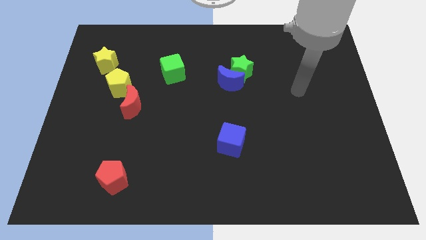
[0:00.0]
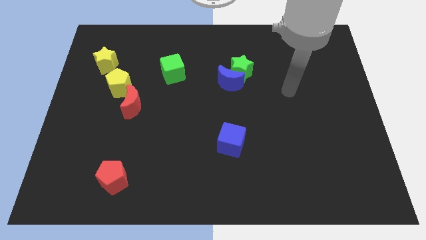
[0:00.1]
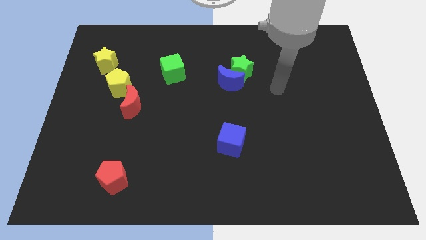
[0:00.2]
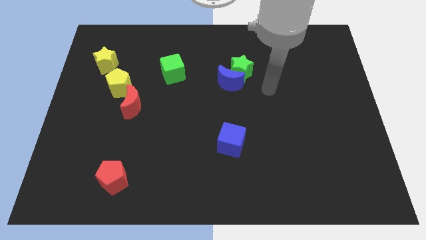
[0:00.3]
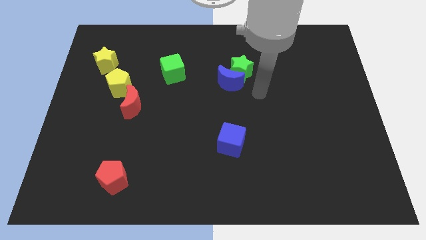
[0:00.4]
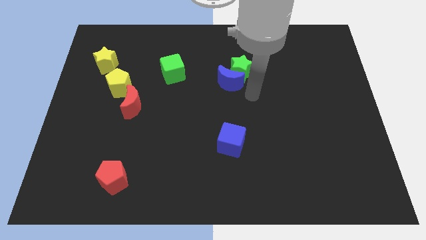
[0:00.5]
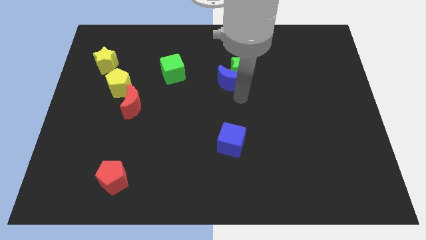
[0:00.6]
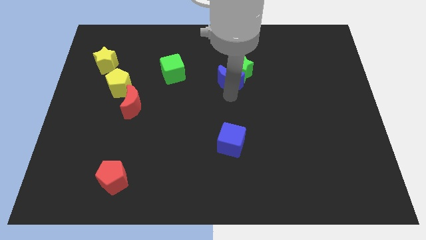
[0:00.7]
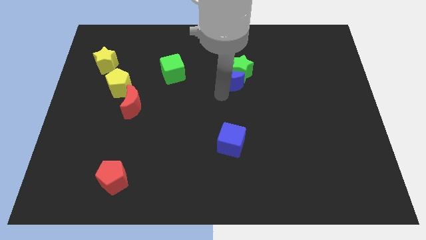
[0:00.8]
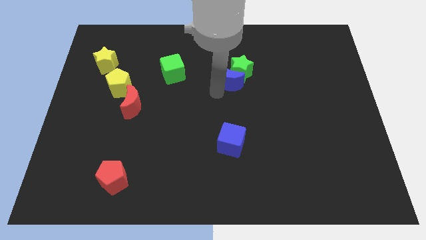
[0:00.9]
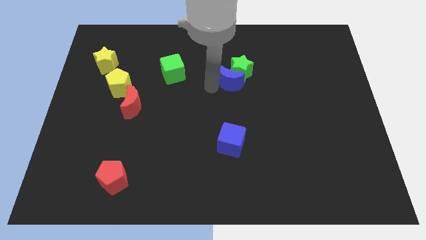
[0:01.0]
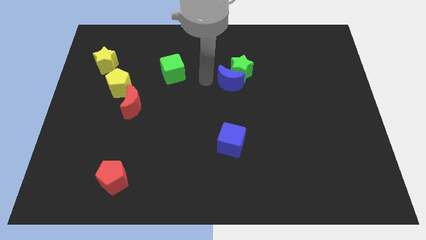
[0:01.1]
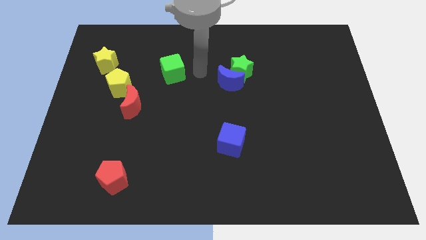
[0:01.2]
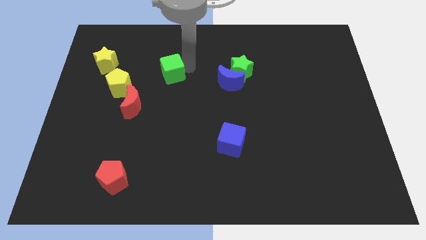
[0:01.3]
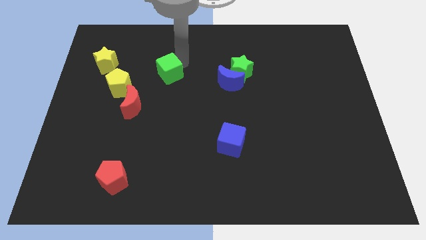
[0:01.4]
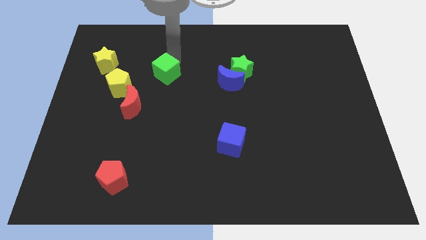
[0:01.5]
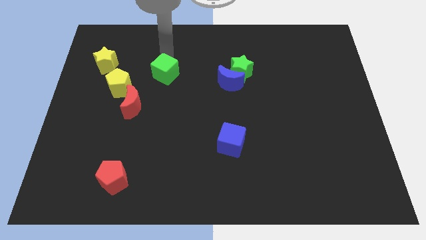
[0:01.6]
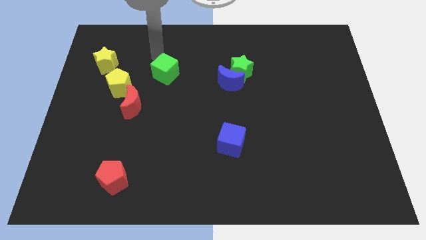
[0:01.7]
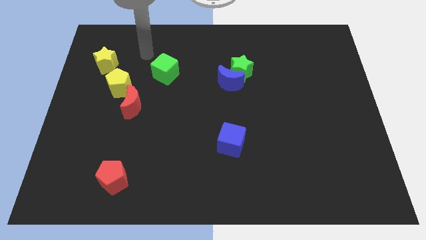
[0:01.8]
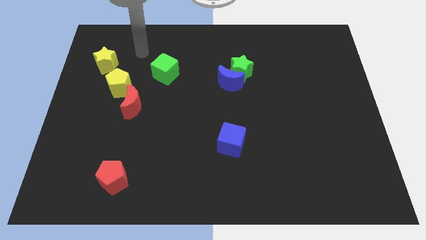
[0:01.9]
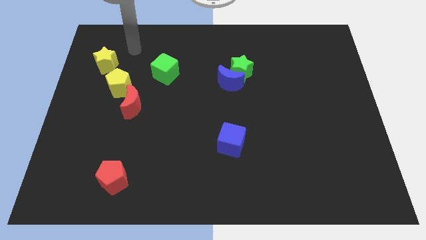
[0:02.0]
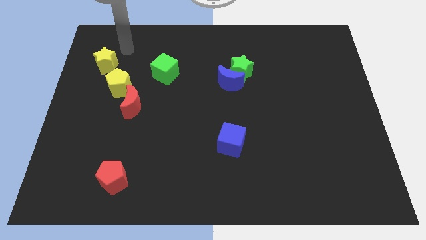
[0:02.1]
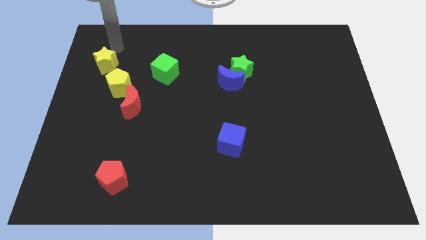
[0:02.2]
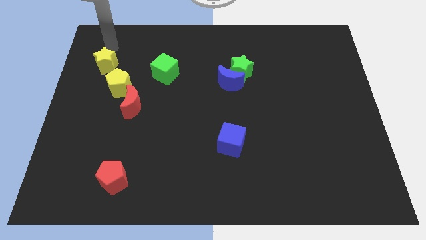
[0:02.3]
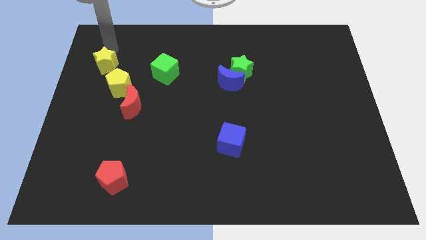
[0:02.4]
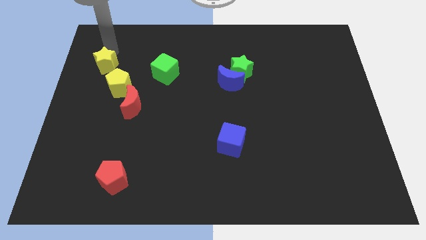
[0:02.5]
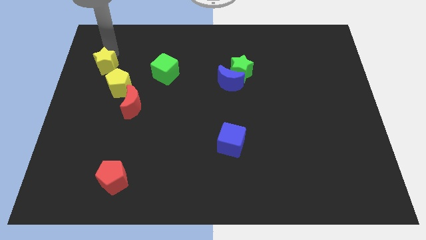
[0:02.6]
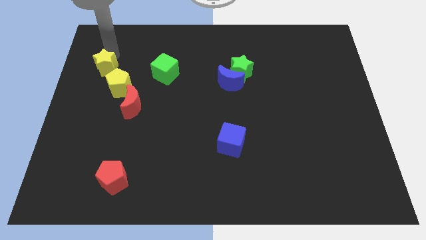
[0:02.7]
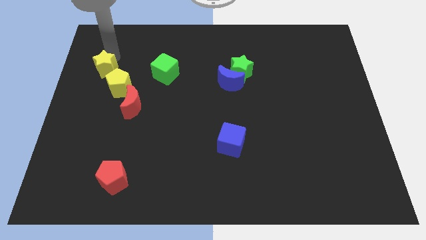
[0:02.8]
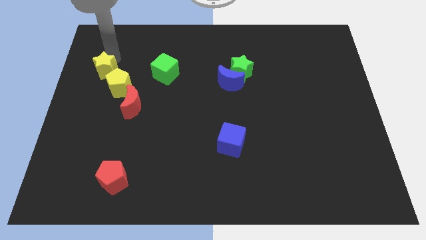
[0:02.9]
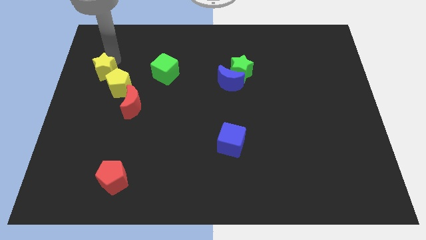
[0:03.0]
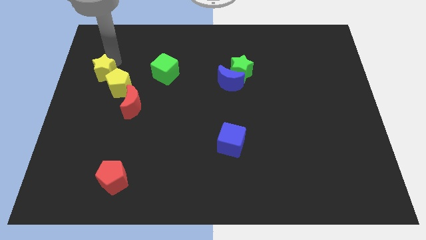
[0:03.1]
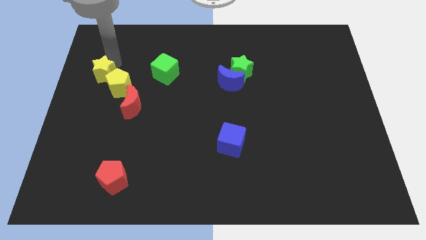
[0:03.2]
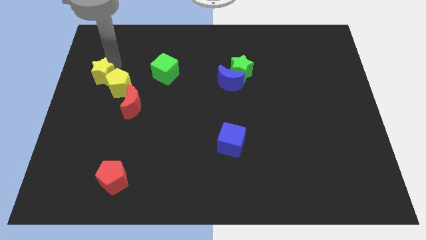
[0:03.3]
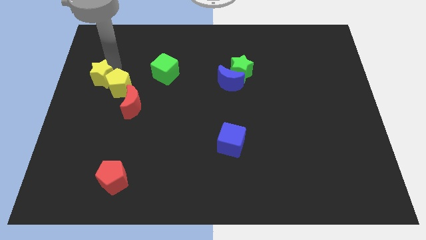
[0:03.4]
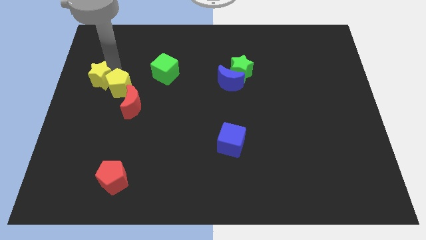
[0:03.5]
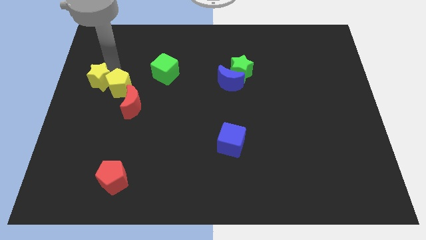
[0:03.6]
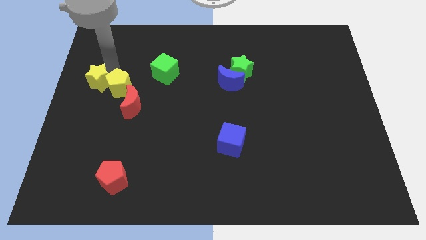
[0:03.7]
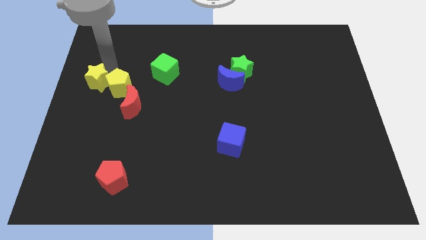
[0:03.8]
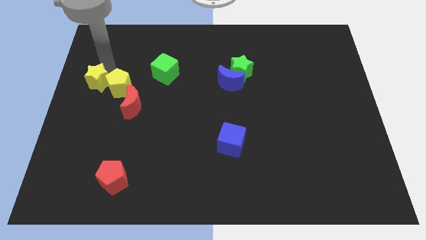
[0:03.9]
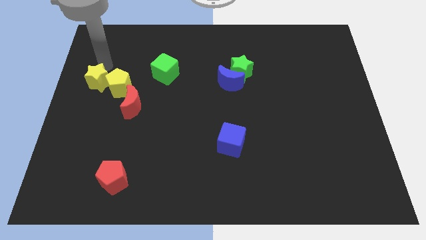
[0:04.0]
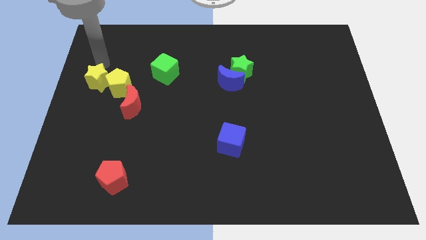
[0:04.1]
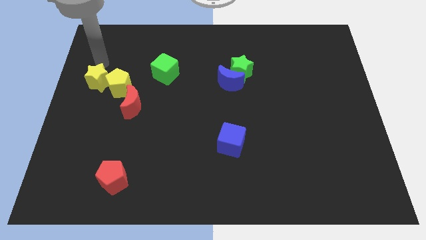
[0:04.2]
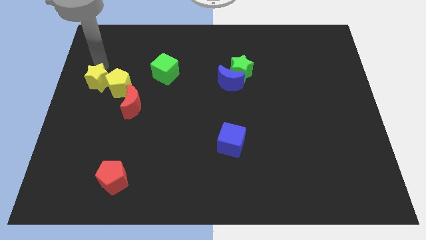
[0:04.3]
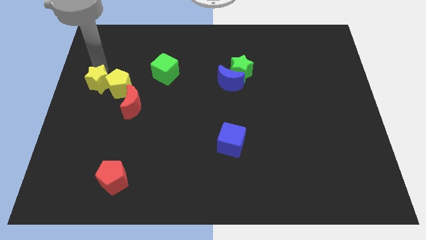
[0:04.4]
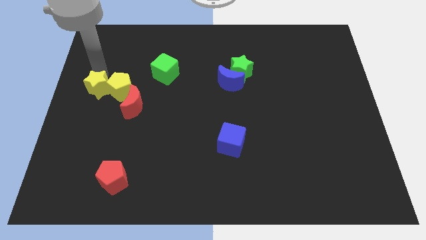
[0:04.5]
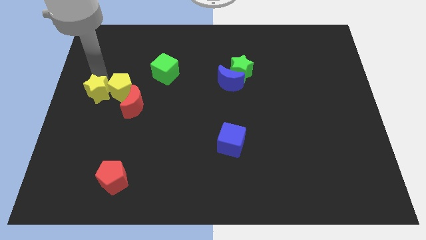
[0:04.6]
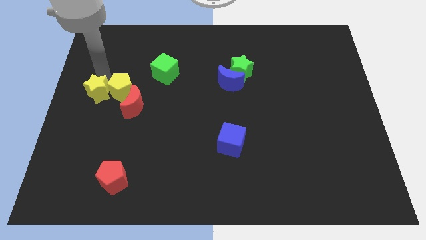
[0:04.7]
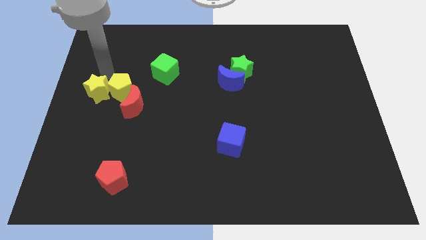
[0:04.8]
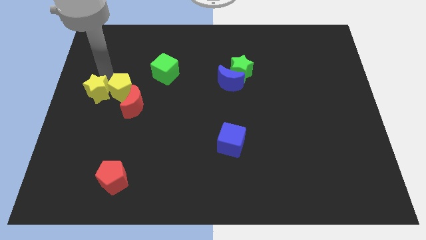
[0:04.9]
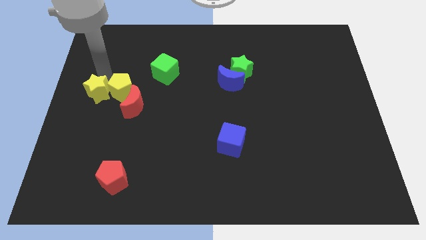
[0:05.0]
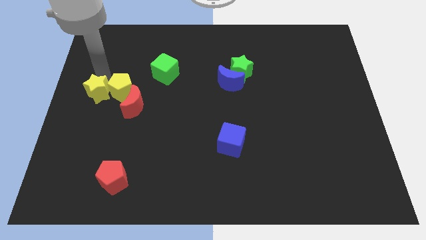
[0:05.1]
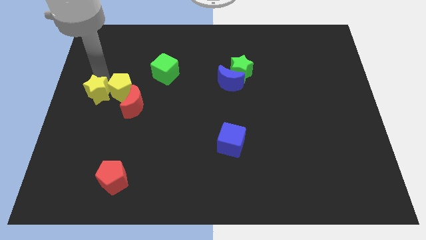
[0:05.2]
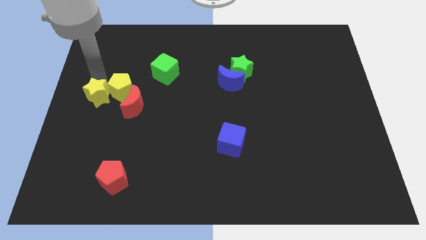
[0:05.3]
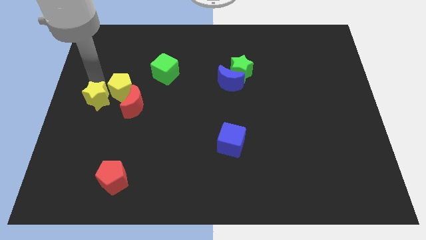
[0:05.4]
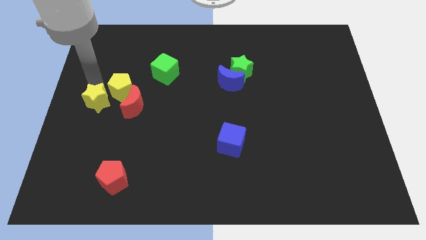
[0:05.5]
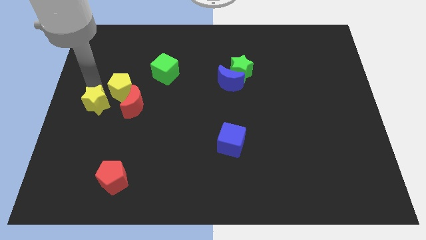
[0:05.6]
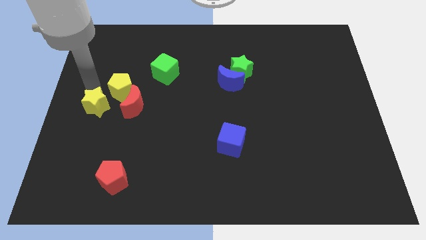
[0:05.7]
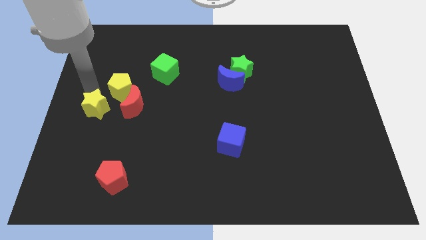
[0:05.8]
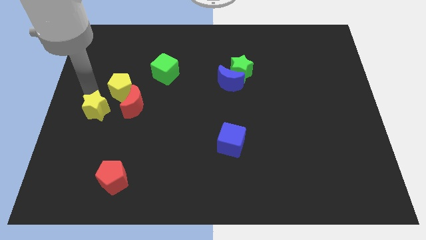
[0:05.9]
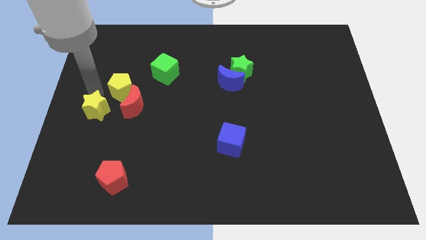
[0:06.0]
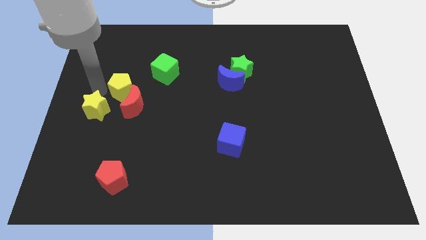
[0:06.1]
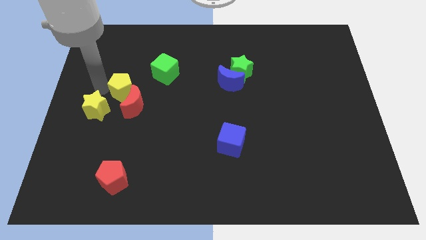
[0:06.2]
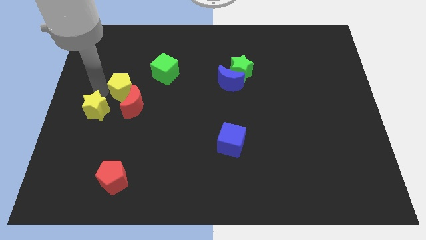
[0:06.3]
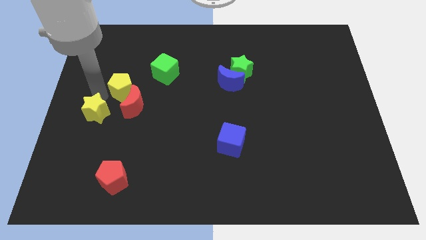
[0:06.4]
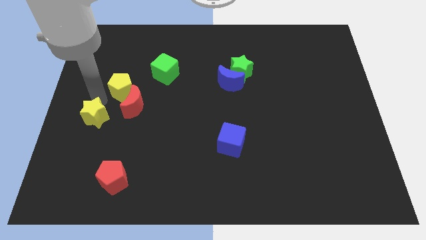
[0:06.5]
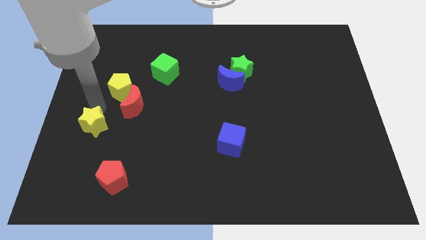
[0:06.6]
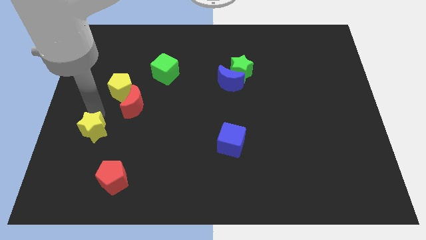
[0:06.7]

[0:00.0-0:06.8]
push the yellow star down

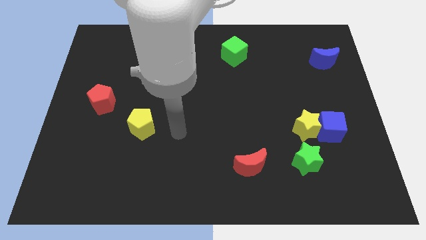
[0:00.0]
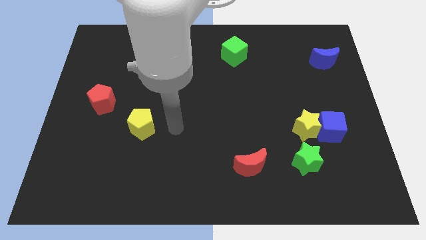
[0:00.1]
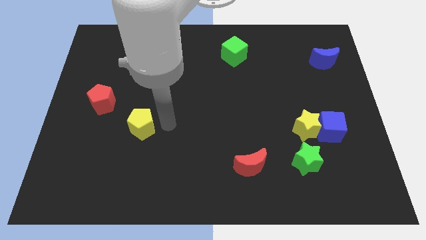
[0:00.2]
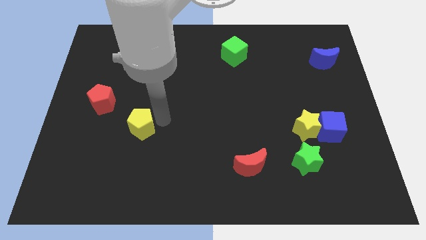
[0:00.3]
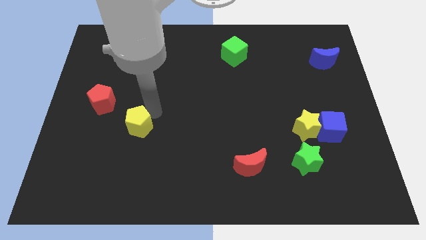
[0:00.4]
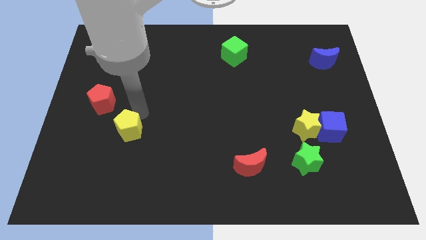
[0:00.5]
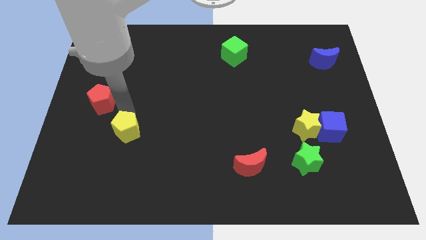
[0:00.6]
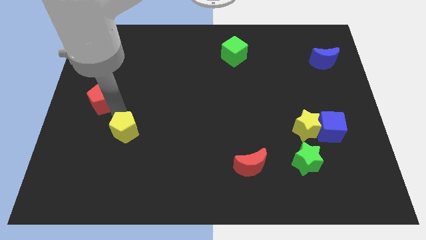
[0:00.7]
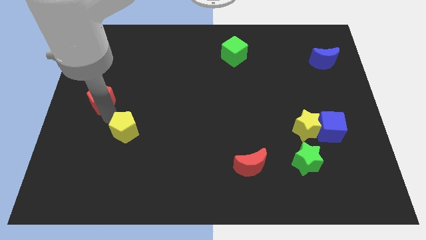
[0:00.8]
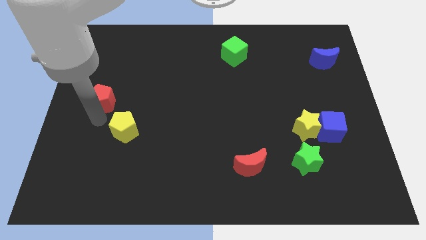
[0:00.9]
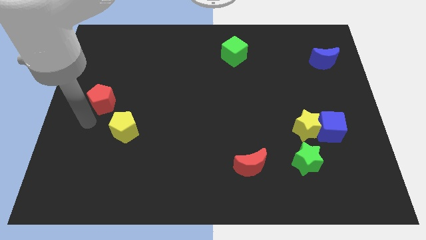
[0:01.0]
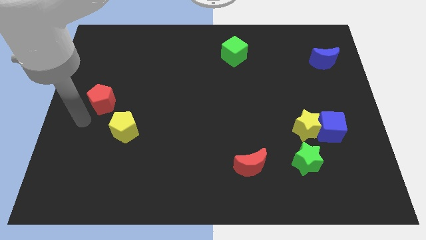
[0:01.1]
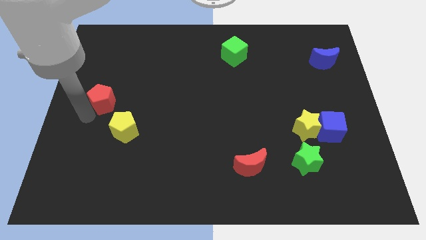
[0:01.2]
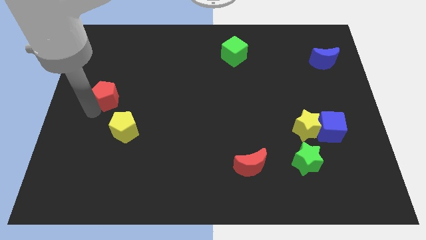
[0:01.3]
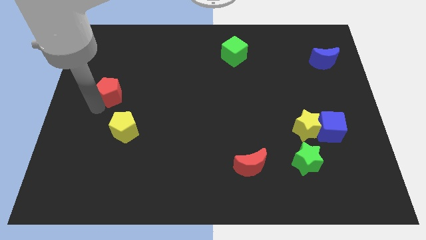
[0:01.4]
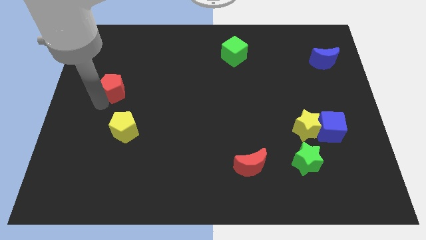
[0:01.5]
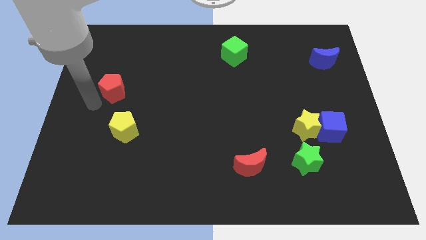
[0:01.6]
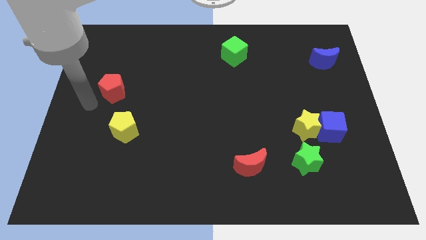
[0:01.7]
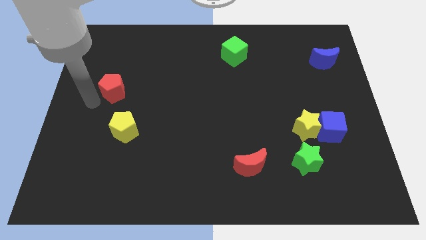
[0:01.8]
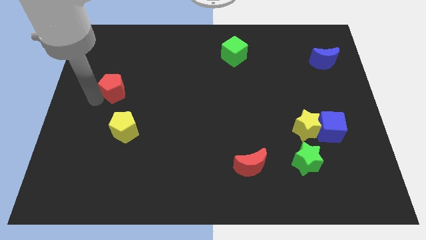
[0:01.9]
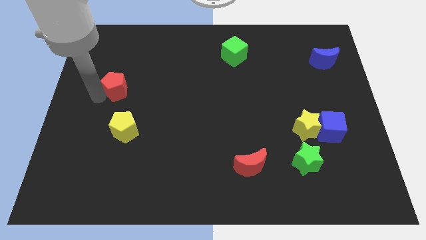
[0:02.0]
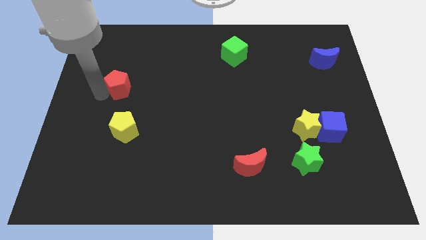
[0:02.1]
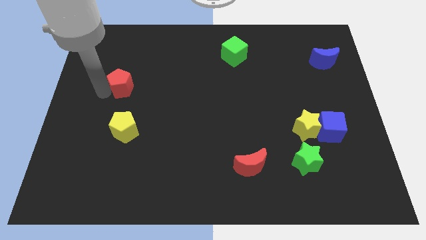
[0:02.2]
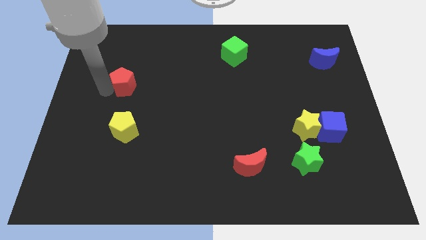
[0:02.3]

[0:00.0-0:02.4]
slide the red pentagon a bit up and right
